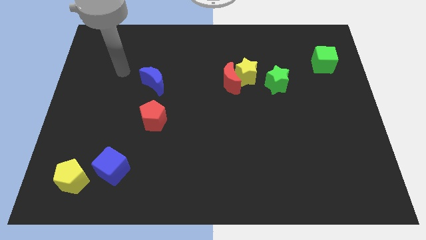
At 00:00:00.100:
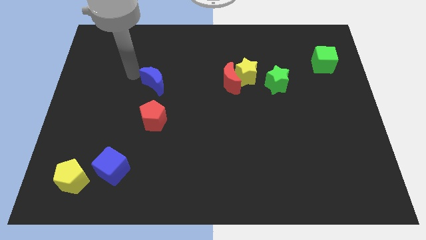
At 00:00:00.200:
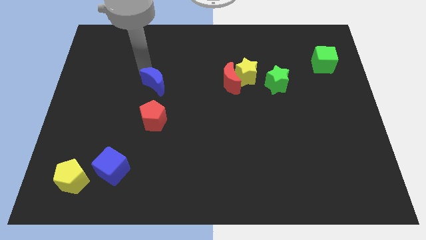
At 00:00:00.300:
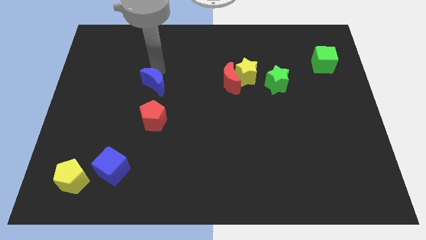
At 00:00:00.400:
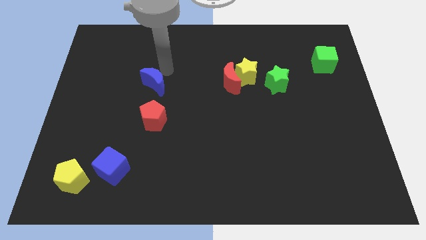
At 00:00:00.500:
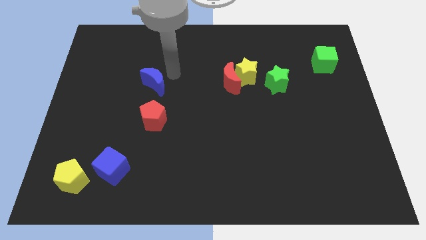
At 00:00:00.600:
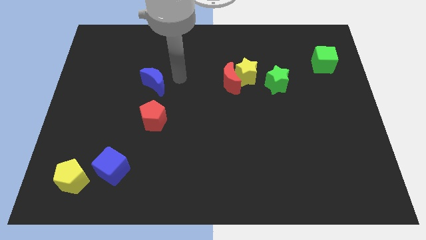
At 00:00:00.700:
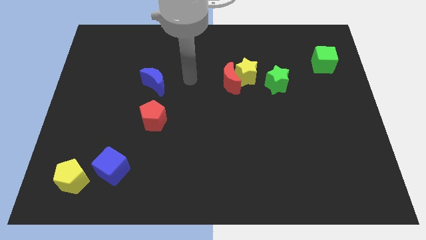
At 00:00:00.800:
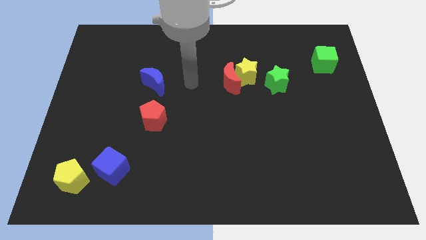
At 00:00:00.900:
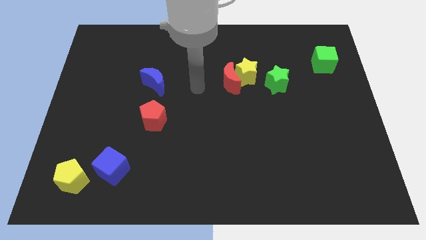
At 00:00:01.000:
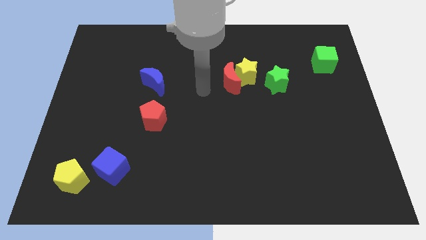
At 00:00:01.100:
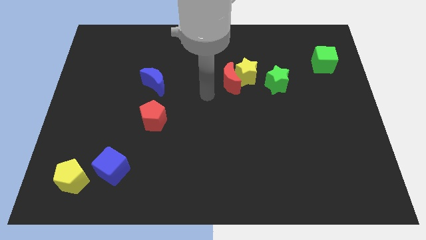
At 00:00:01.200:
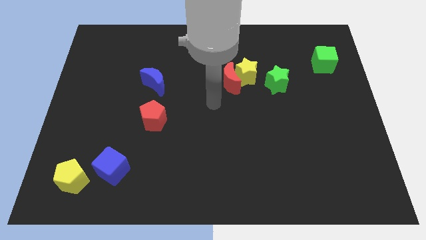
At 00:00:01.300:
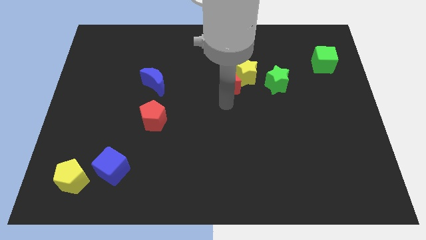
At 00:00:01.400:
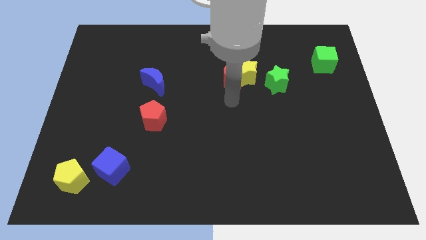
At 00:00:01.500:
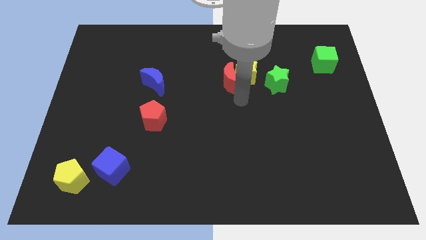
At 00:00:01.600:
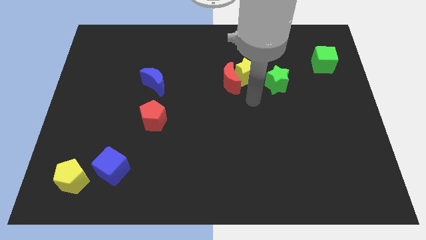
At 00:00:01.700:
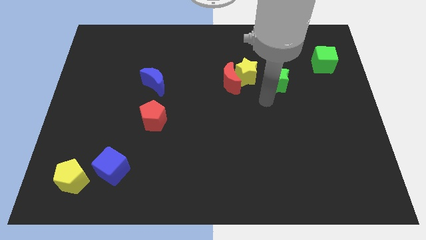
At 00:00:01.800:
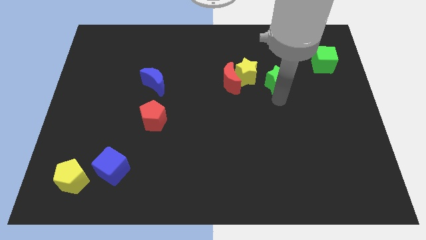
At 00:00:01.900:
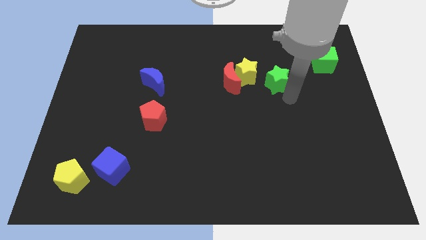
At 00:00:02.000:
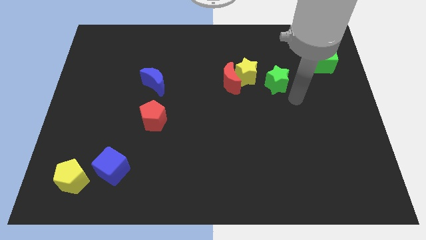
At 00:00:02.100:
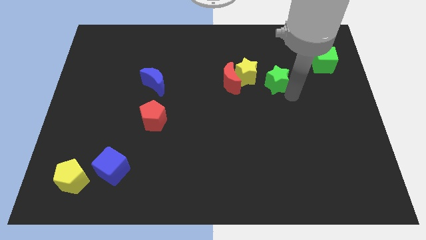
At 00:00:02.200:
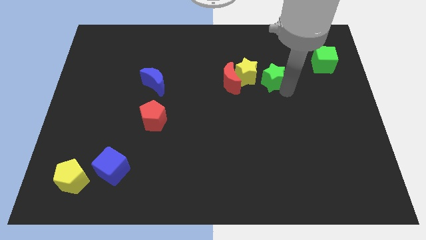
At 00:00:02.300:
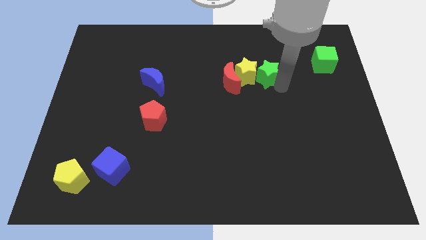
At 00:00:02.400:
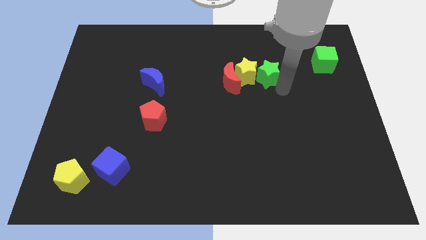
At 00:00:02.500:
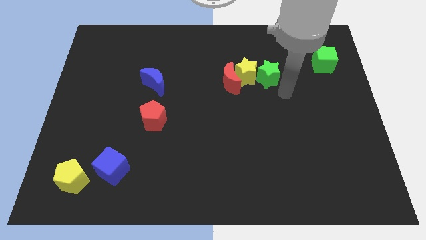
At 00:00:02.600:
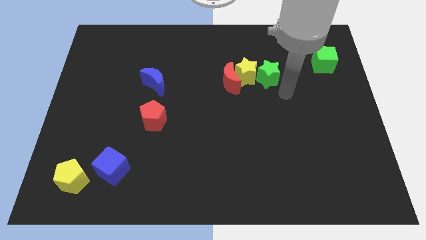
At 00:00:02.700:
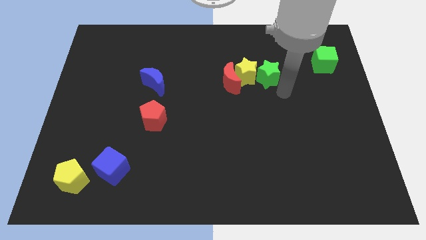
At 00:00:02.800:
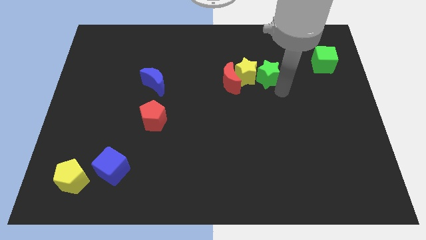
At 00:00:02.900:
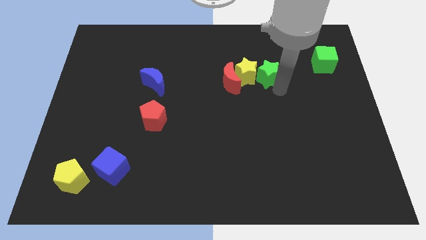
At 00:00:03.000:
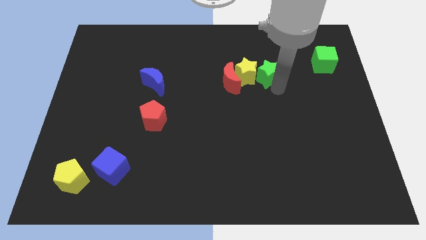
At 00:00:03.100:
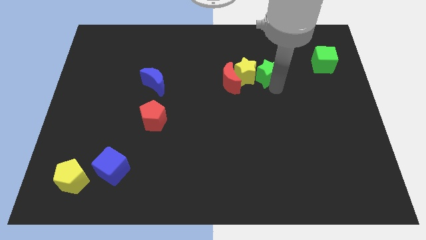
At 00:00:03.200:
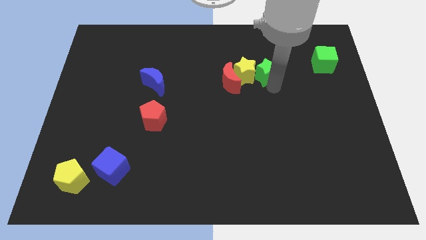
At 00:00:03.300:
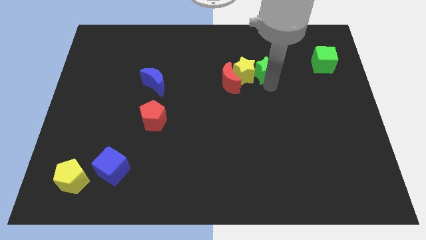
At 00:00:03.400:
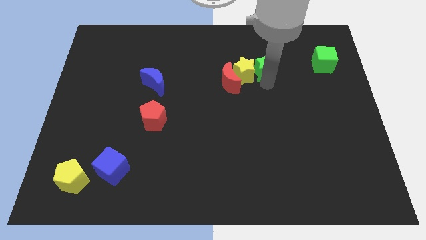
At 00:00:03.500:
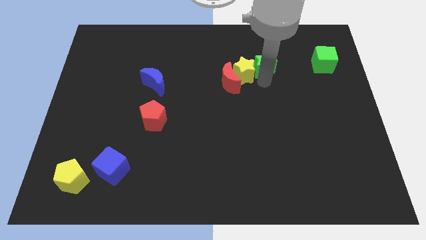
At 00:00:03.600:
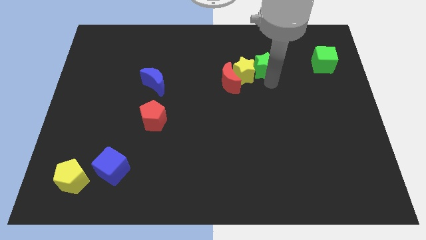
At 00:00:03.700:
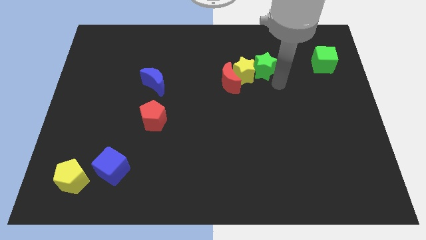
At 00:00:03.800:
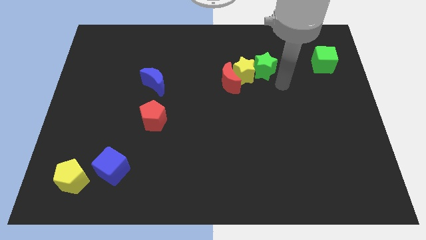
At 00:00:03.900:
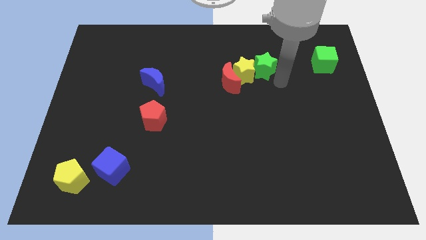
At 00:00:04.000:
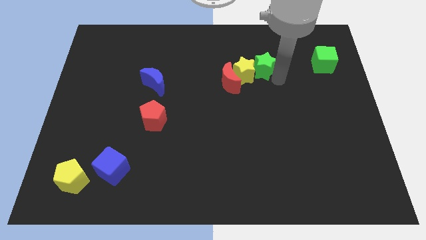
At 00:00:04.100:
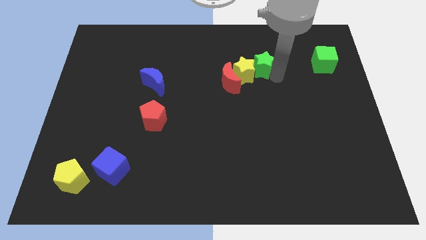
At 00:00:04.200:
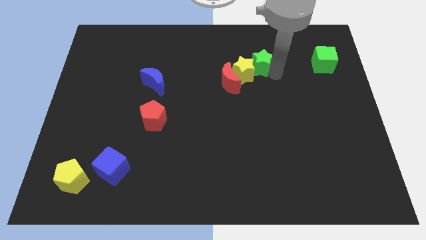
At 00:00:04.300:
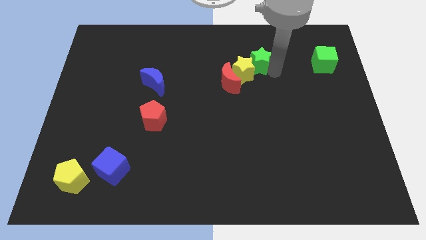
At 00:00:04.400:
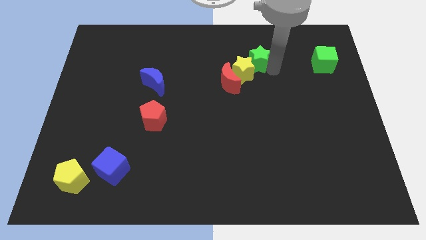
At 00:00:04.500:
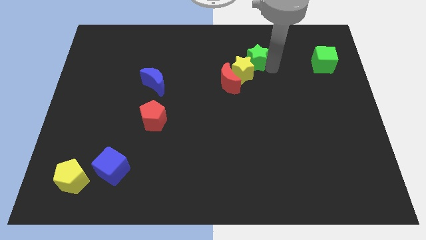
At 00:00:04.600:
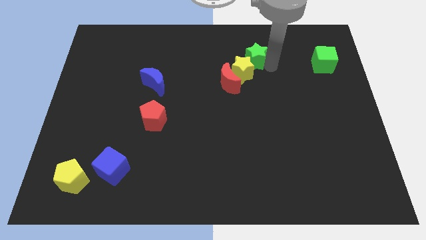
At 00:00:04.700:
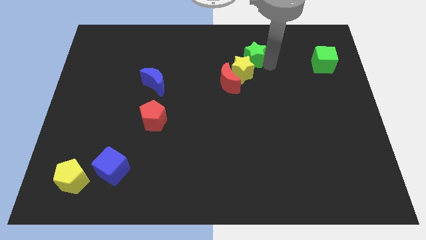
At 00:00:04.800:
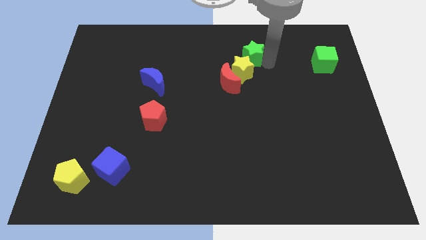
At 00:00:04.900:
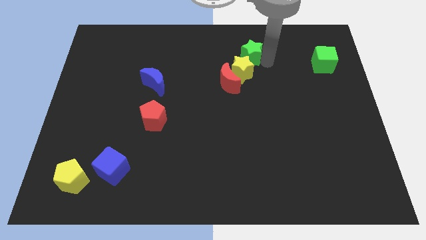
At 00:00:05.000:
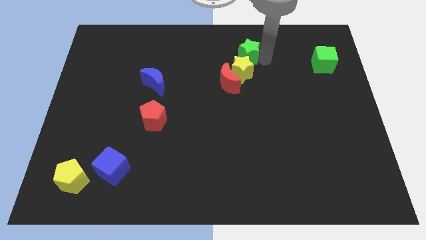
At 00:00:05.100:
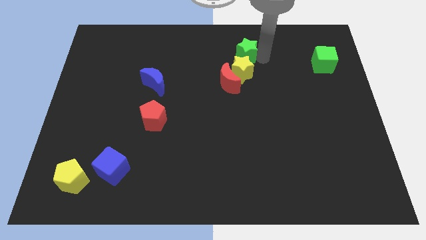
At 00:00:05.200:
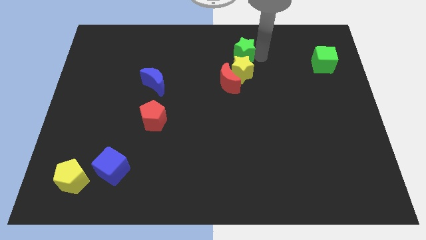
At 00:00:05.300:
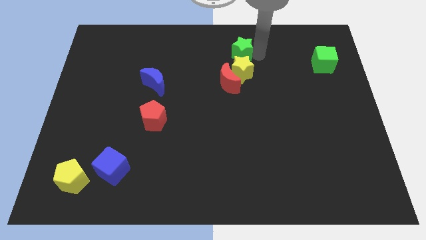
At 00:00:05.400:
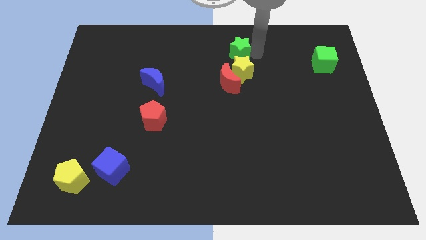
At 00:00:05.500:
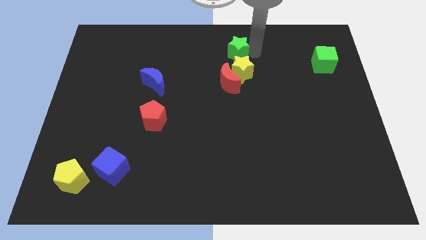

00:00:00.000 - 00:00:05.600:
put the green star to the towards your base

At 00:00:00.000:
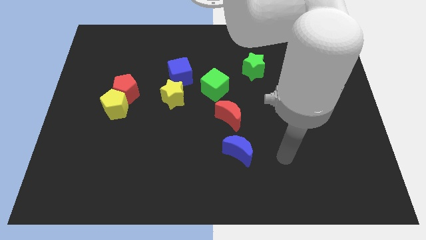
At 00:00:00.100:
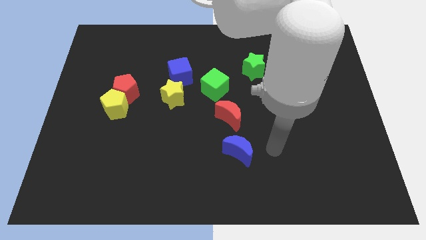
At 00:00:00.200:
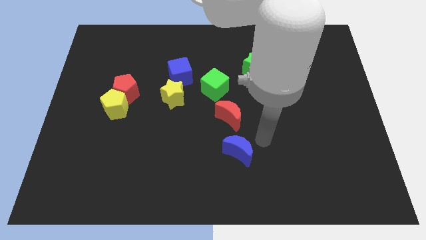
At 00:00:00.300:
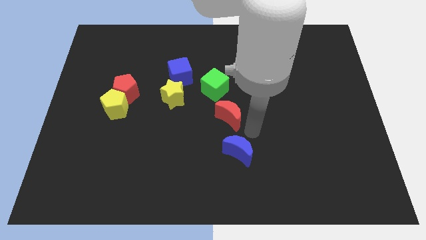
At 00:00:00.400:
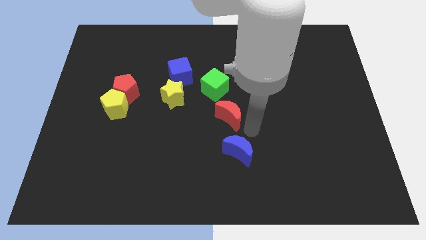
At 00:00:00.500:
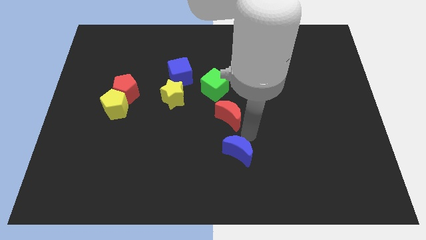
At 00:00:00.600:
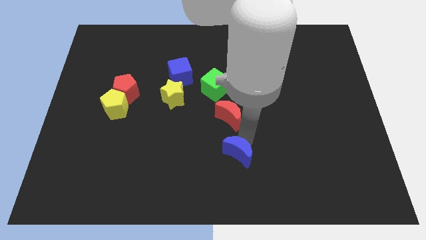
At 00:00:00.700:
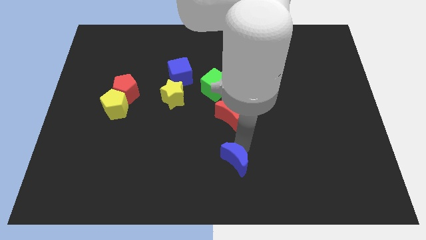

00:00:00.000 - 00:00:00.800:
put the blue moon to the bottom side
